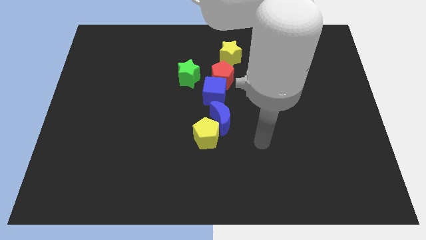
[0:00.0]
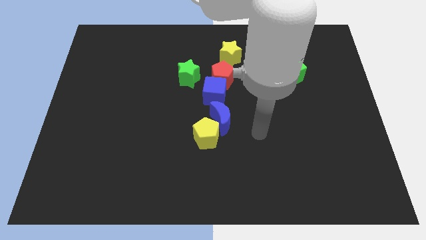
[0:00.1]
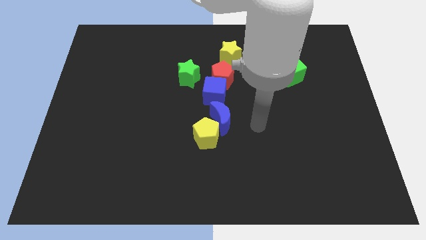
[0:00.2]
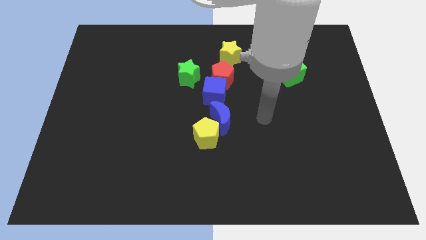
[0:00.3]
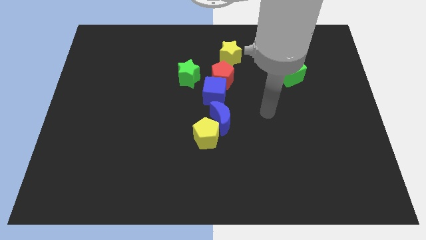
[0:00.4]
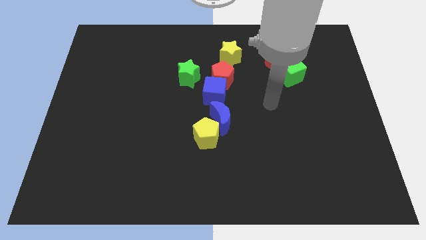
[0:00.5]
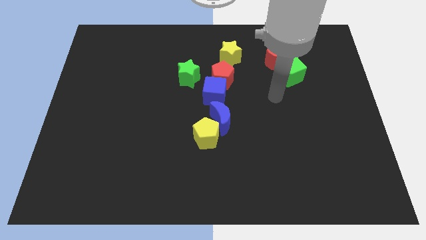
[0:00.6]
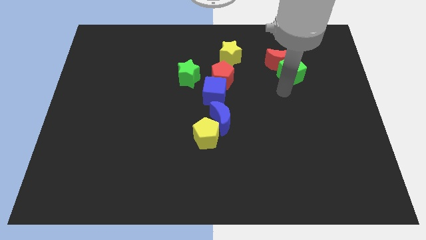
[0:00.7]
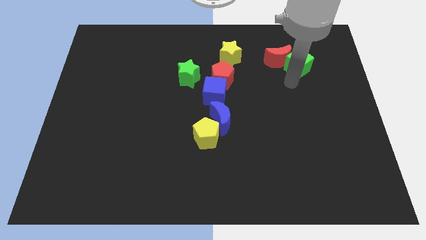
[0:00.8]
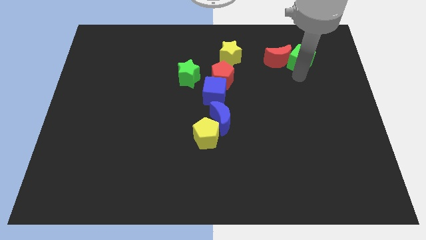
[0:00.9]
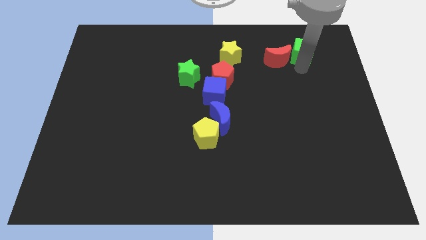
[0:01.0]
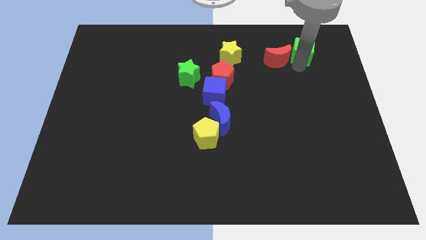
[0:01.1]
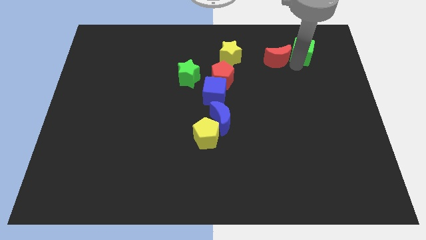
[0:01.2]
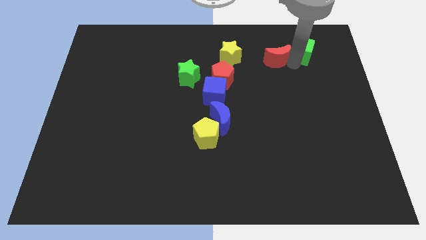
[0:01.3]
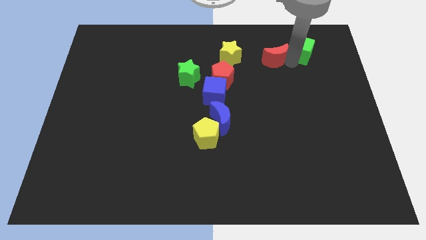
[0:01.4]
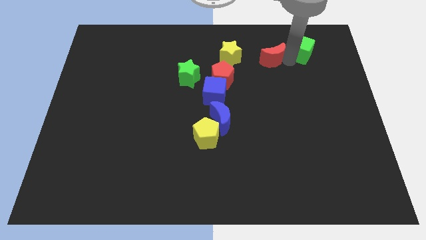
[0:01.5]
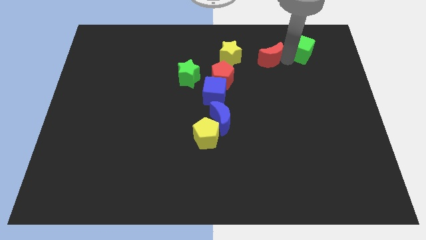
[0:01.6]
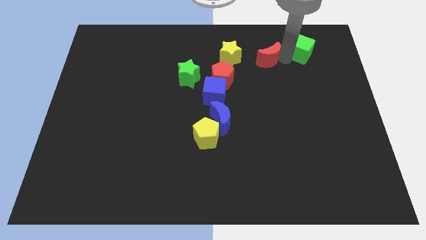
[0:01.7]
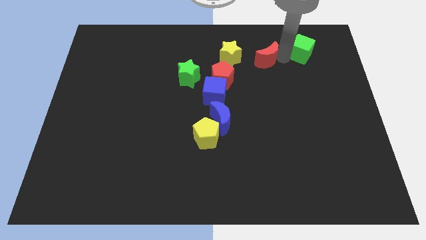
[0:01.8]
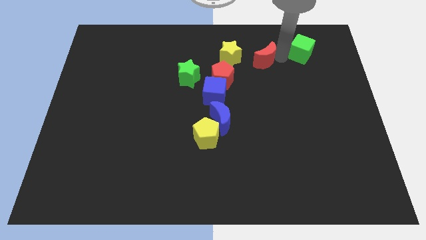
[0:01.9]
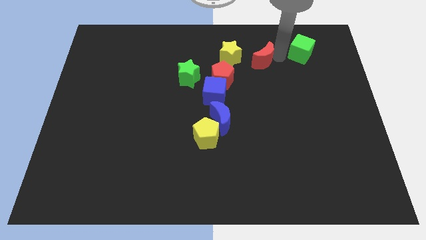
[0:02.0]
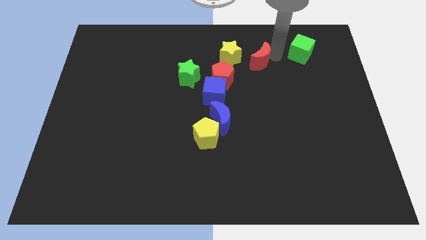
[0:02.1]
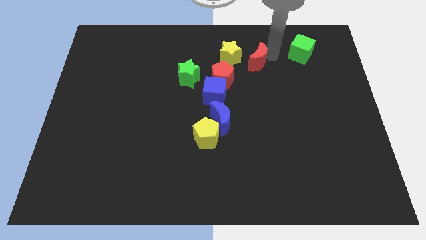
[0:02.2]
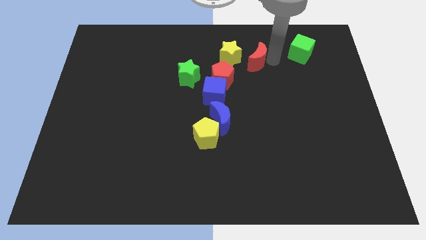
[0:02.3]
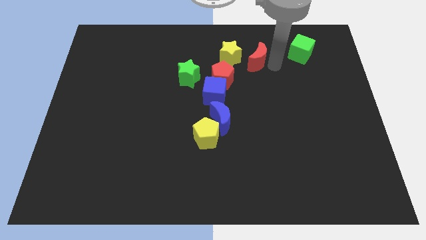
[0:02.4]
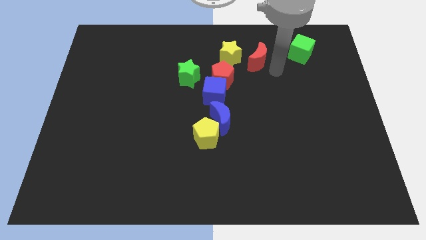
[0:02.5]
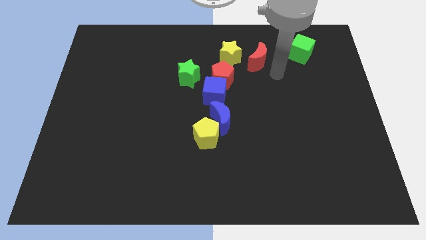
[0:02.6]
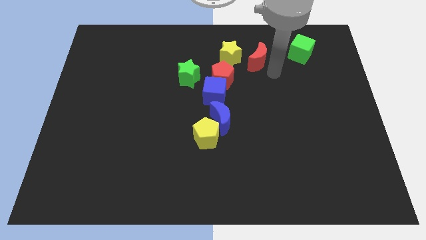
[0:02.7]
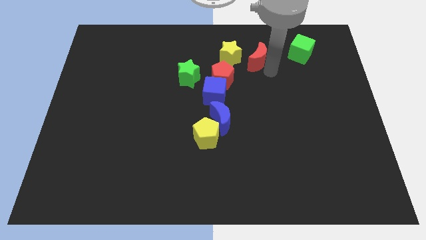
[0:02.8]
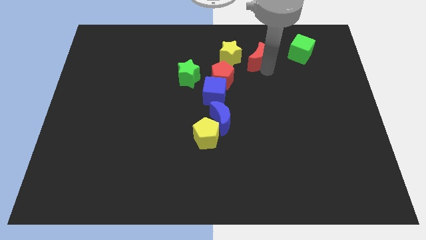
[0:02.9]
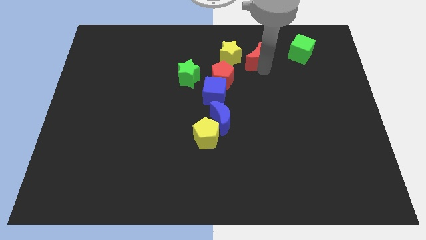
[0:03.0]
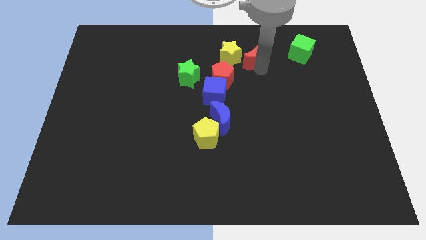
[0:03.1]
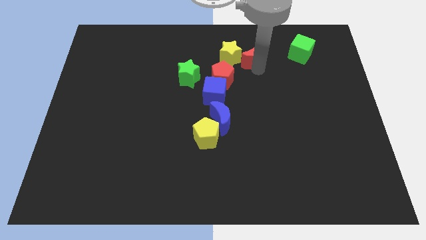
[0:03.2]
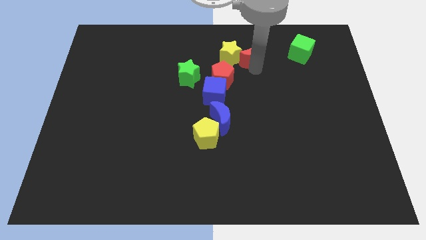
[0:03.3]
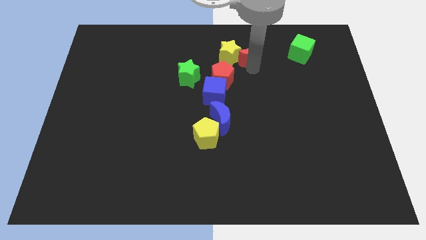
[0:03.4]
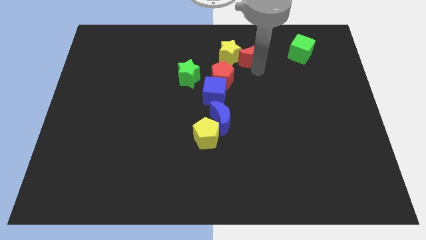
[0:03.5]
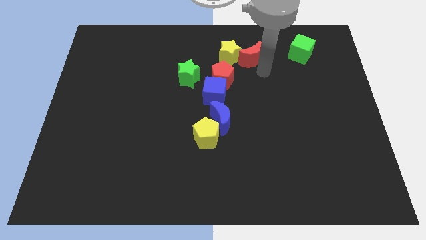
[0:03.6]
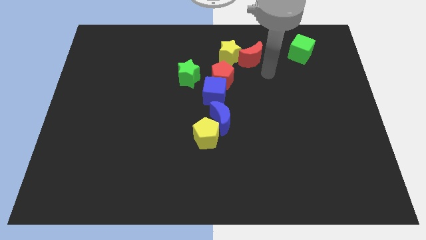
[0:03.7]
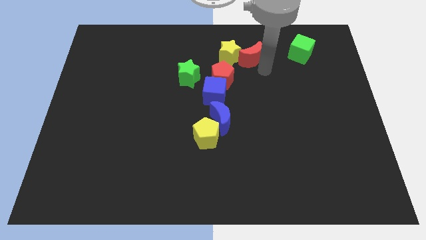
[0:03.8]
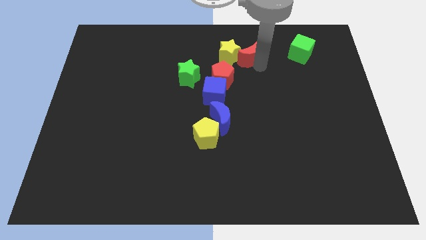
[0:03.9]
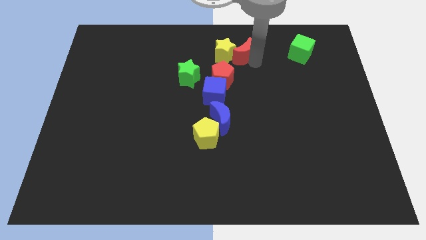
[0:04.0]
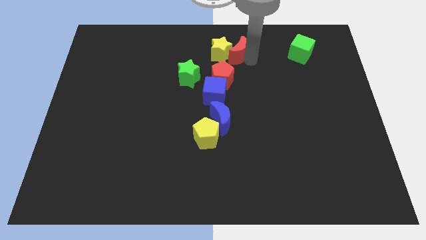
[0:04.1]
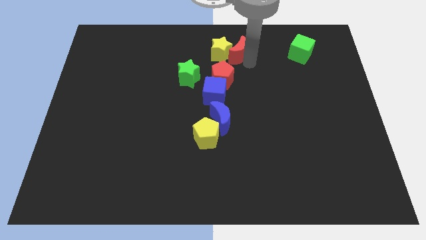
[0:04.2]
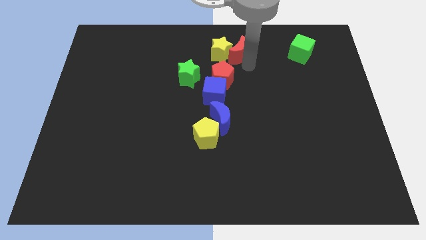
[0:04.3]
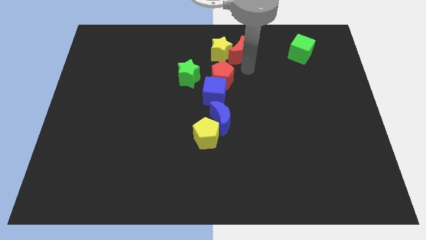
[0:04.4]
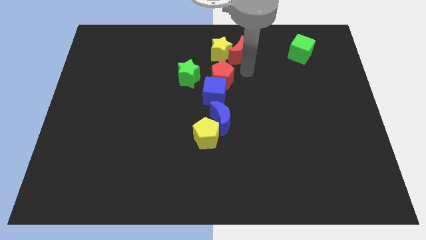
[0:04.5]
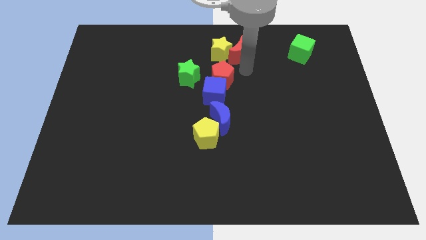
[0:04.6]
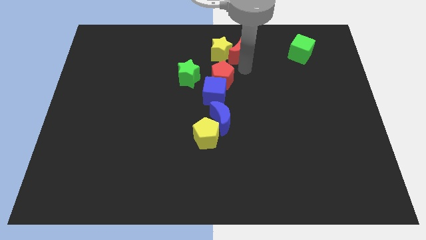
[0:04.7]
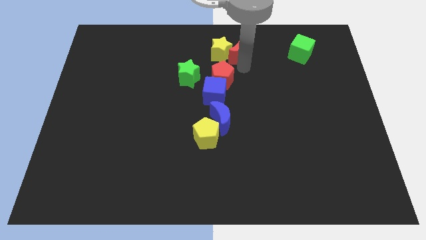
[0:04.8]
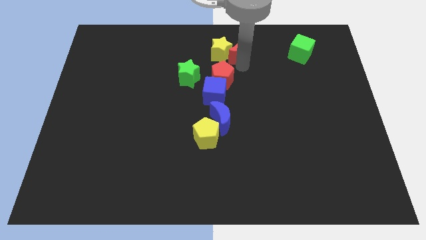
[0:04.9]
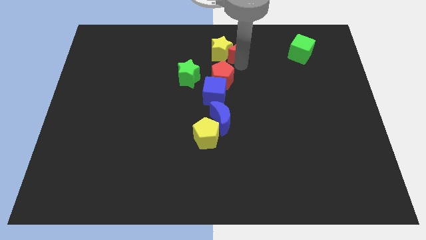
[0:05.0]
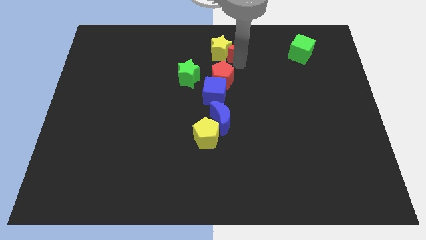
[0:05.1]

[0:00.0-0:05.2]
push the red moon to the top side

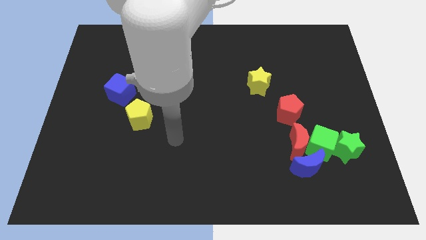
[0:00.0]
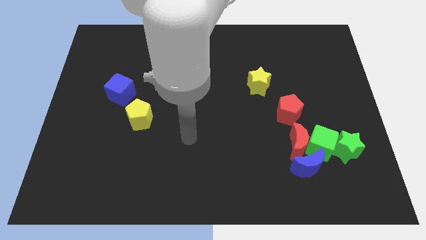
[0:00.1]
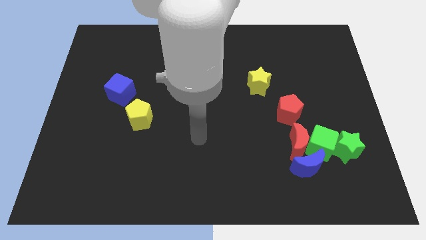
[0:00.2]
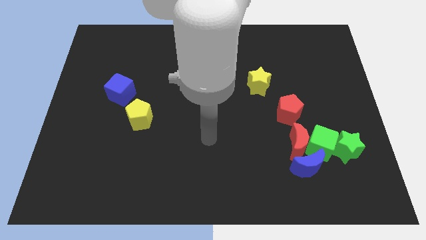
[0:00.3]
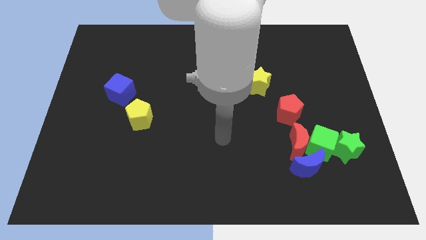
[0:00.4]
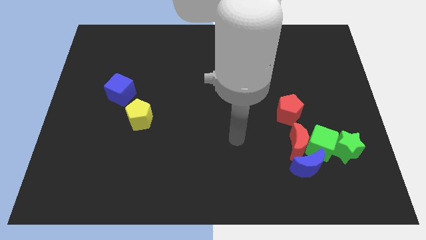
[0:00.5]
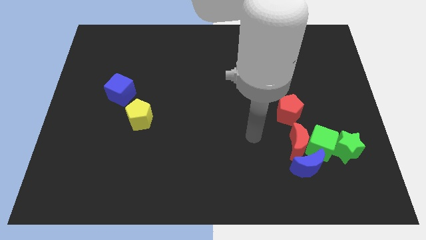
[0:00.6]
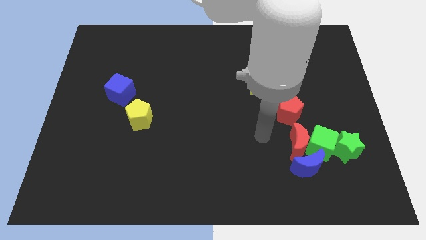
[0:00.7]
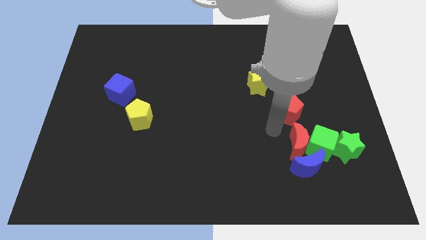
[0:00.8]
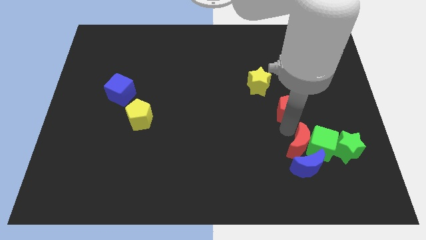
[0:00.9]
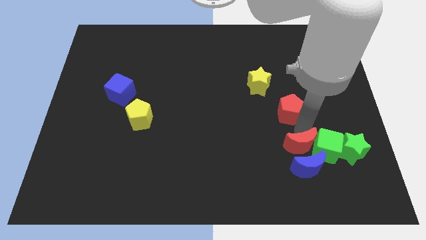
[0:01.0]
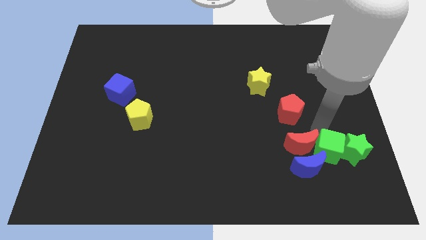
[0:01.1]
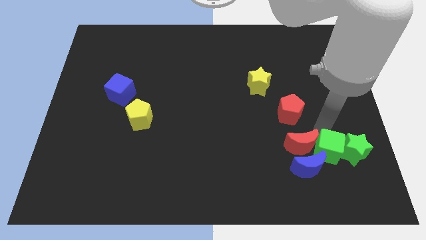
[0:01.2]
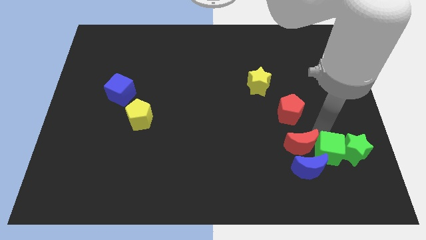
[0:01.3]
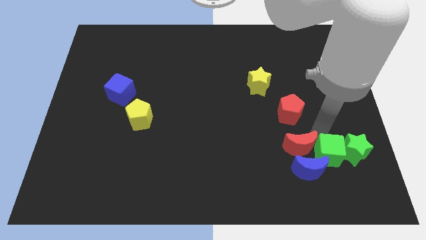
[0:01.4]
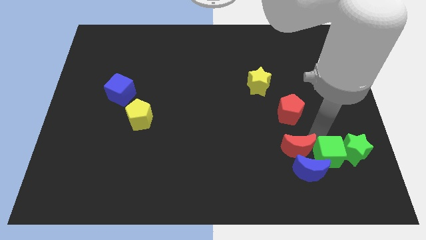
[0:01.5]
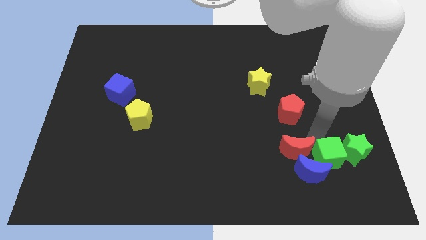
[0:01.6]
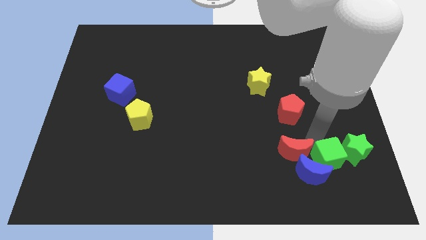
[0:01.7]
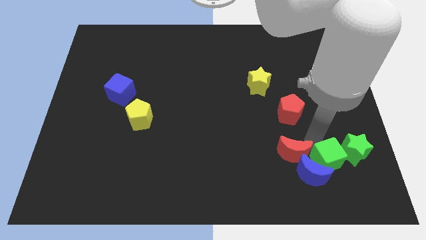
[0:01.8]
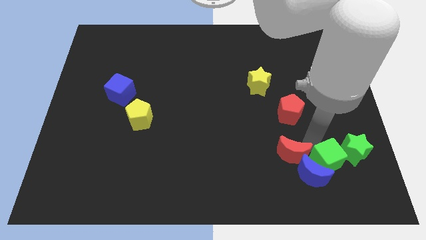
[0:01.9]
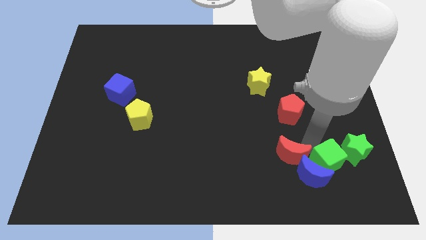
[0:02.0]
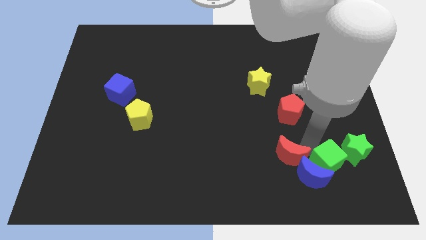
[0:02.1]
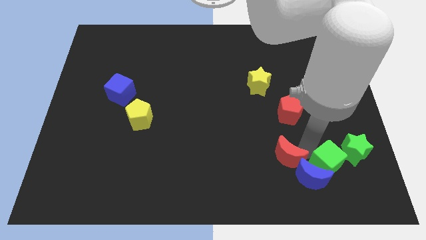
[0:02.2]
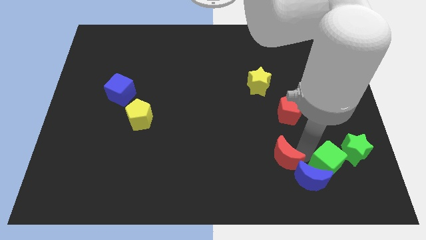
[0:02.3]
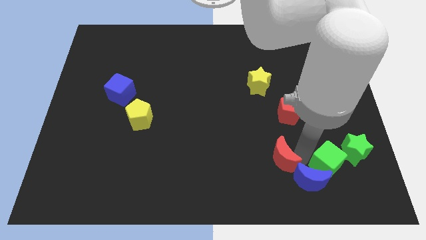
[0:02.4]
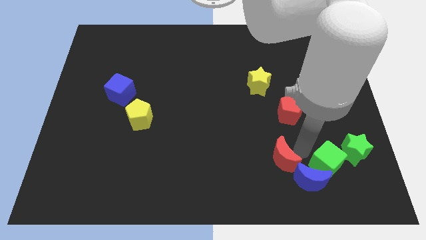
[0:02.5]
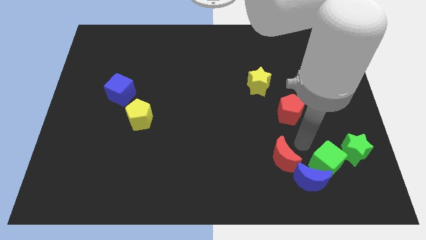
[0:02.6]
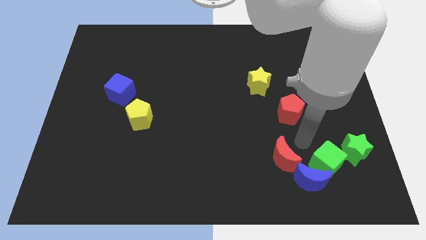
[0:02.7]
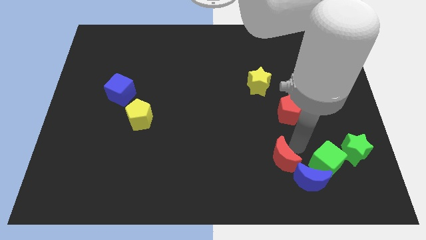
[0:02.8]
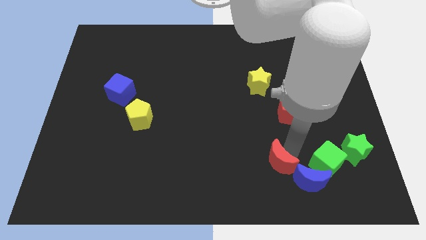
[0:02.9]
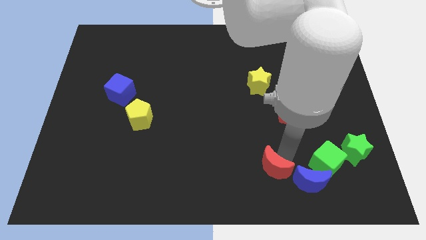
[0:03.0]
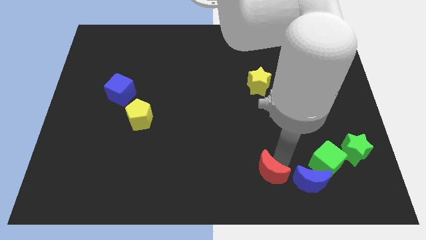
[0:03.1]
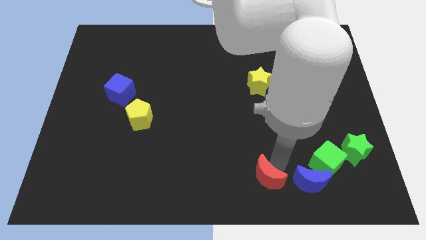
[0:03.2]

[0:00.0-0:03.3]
put the red moon to the bottom side
